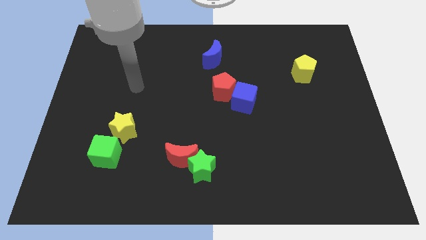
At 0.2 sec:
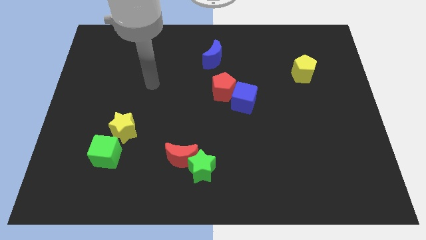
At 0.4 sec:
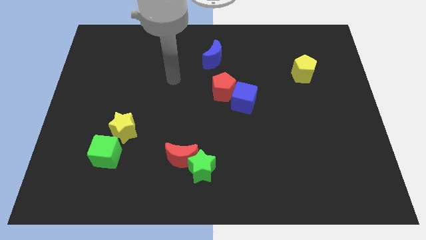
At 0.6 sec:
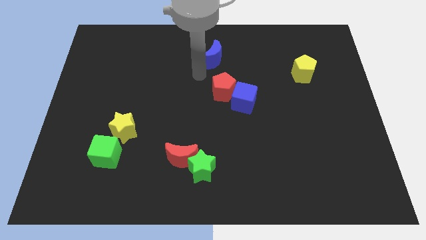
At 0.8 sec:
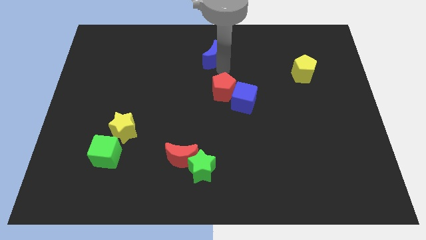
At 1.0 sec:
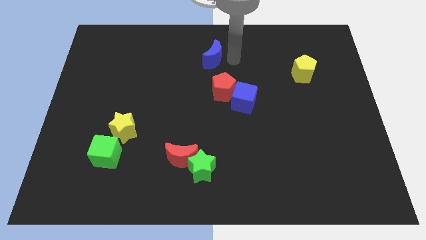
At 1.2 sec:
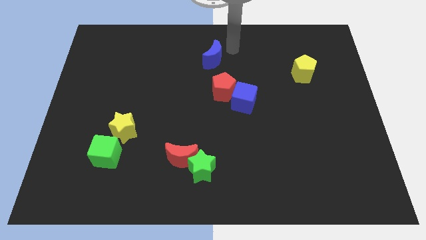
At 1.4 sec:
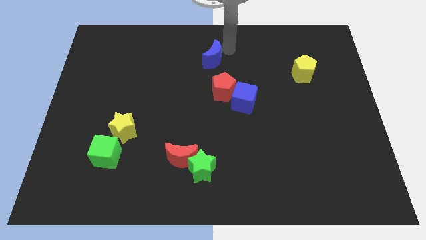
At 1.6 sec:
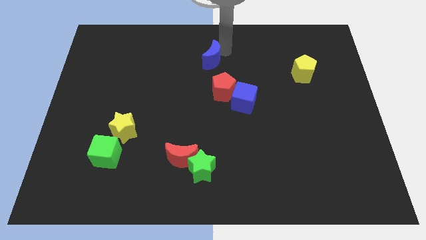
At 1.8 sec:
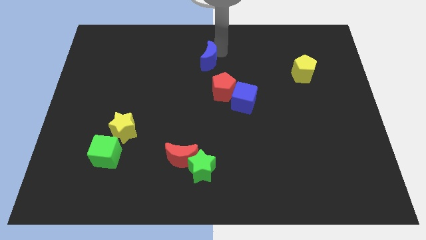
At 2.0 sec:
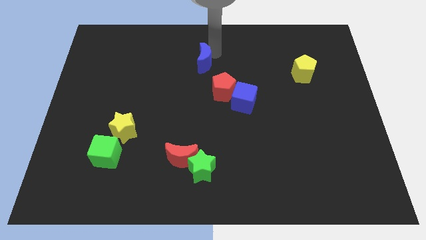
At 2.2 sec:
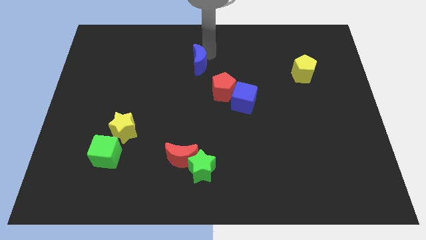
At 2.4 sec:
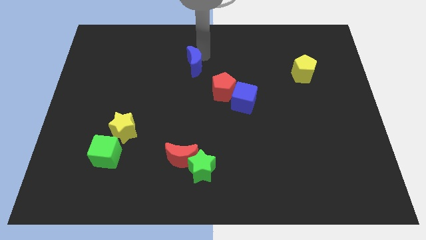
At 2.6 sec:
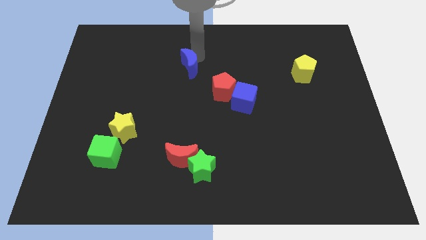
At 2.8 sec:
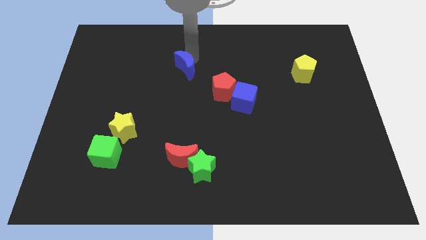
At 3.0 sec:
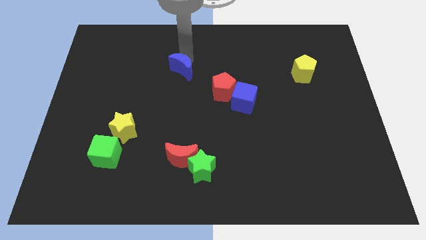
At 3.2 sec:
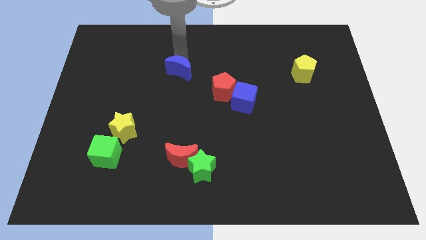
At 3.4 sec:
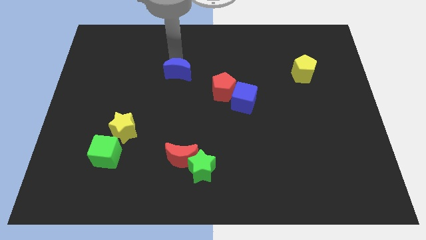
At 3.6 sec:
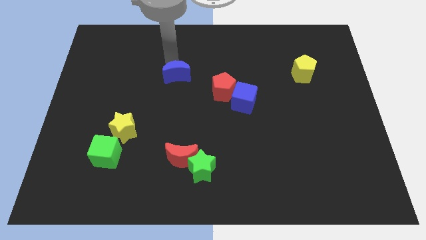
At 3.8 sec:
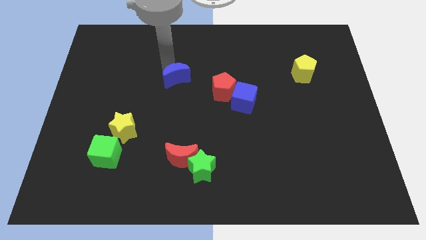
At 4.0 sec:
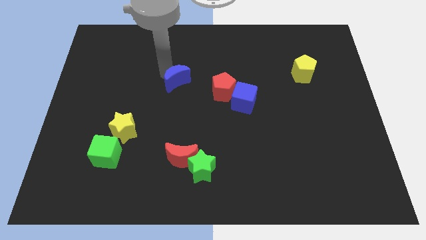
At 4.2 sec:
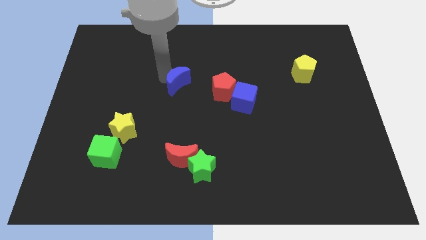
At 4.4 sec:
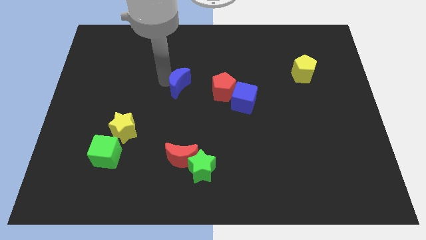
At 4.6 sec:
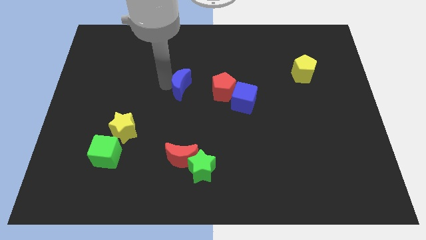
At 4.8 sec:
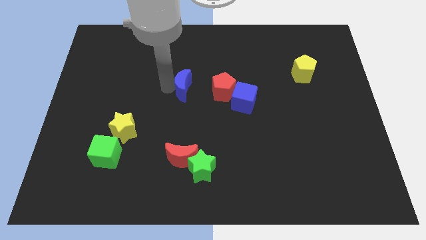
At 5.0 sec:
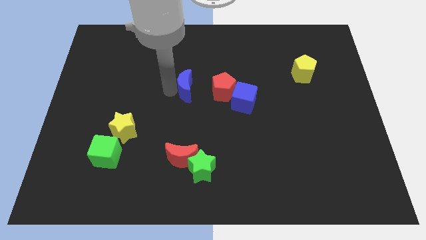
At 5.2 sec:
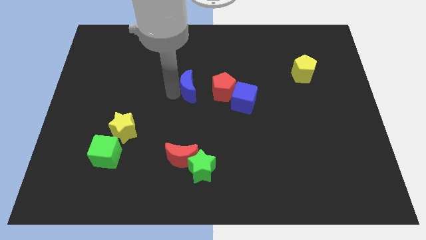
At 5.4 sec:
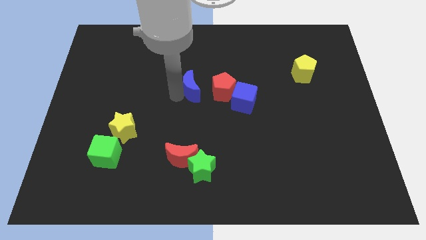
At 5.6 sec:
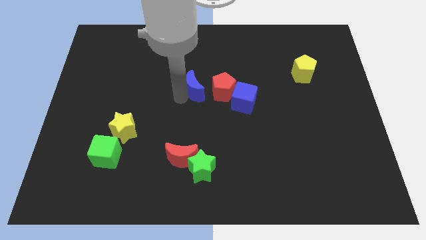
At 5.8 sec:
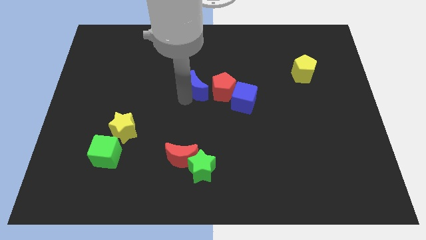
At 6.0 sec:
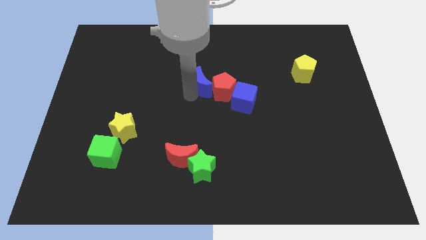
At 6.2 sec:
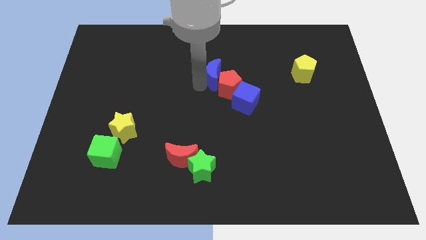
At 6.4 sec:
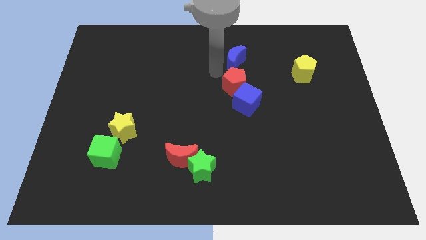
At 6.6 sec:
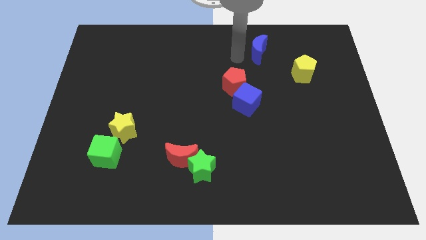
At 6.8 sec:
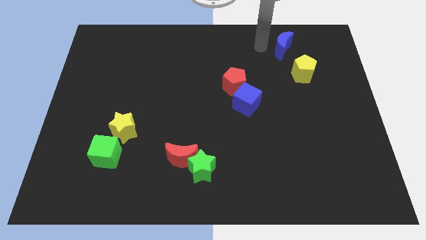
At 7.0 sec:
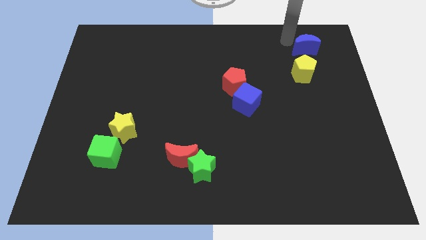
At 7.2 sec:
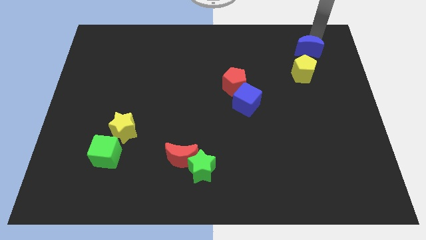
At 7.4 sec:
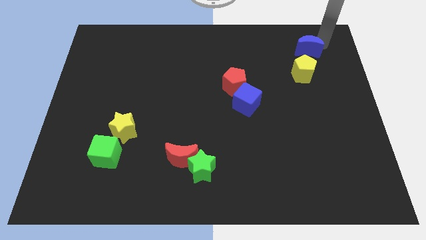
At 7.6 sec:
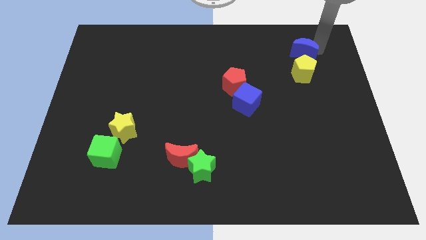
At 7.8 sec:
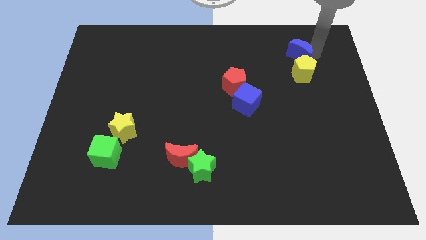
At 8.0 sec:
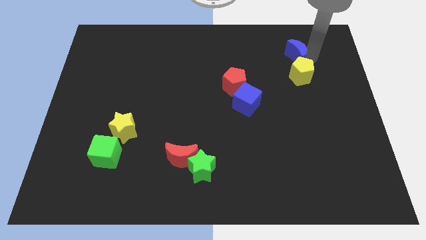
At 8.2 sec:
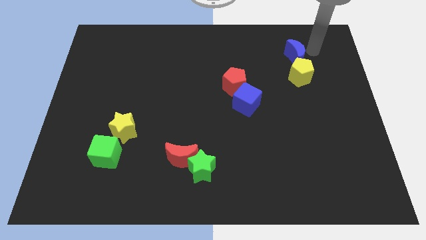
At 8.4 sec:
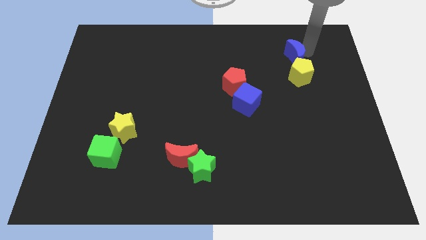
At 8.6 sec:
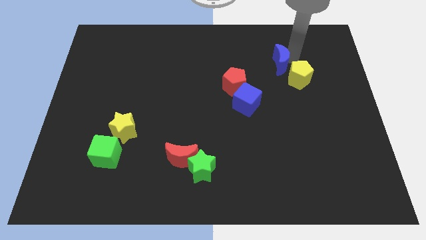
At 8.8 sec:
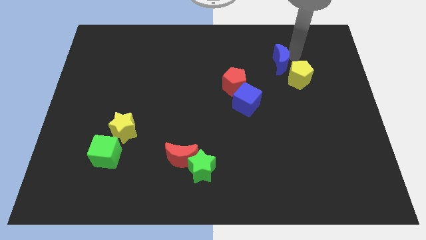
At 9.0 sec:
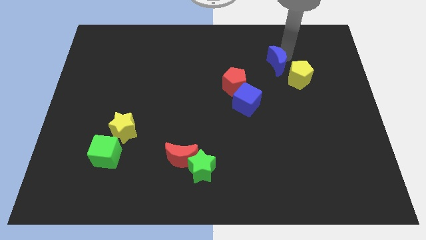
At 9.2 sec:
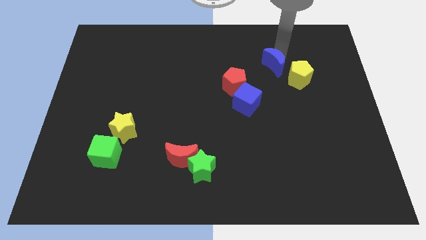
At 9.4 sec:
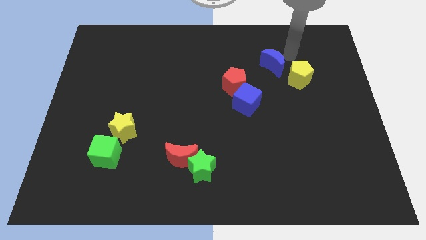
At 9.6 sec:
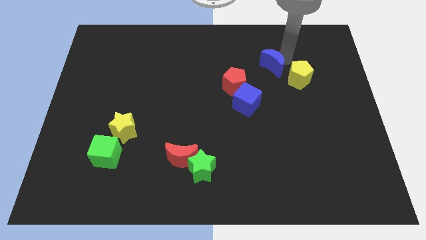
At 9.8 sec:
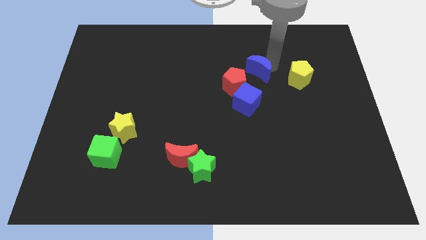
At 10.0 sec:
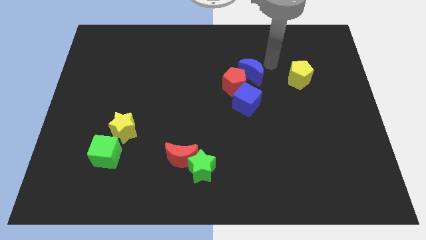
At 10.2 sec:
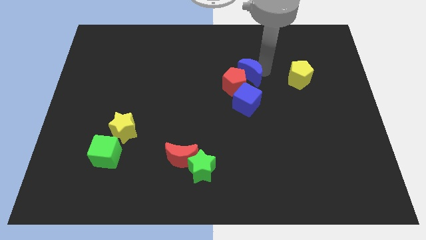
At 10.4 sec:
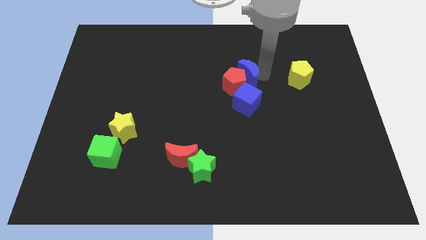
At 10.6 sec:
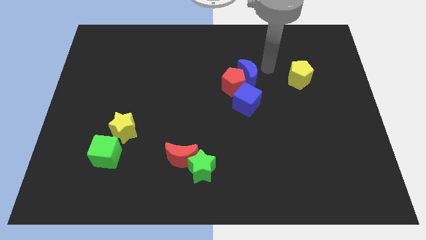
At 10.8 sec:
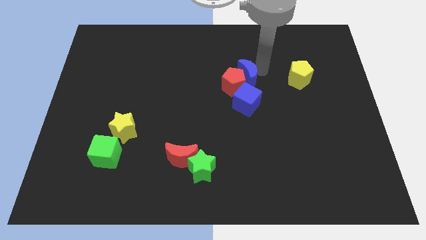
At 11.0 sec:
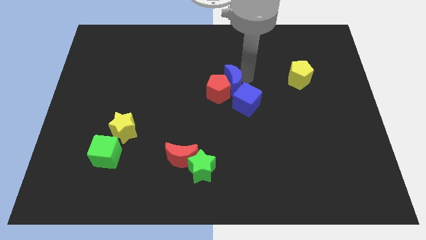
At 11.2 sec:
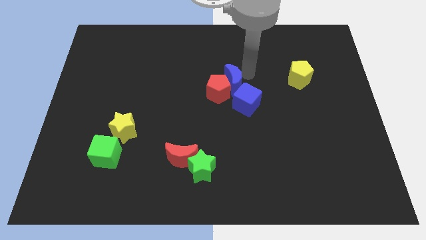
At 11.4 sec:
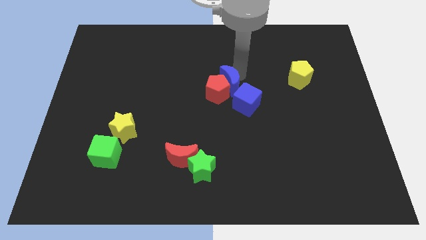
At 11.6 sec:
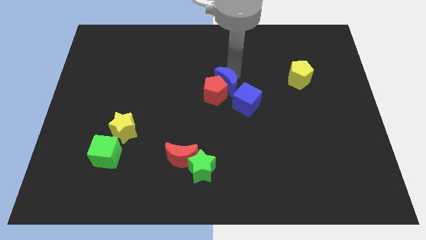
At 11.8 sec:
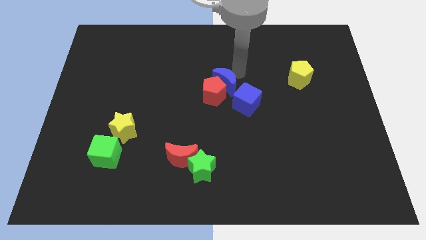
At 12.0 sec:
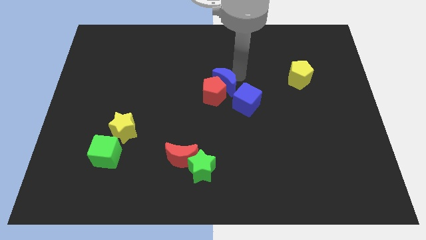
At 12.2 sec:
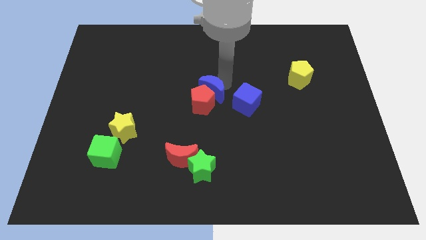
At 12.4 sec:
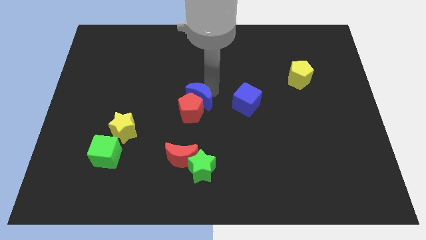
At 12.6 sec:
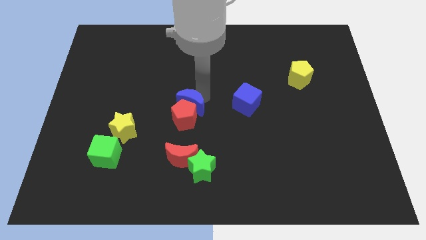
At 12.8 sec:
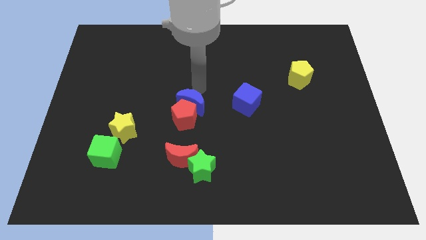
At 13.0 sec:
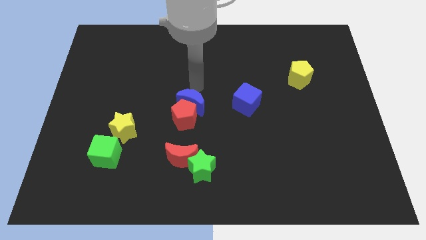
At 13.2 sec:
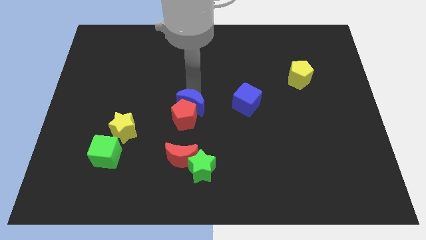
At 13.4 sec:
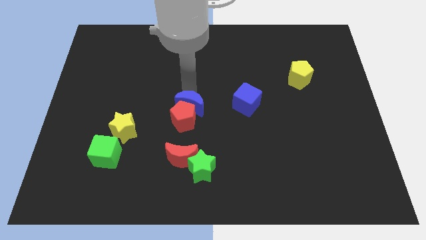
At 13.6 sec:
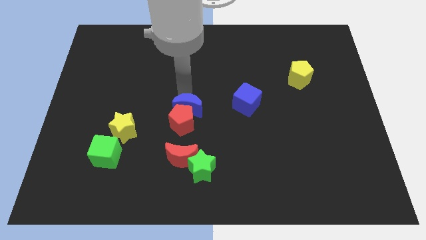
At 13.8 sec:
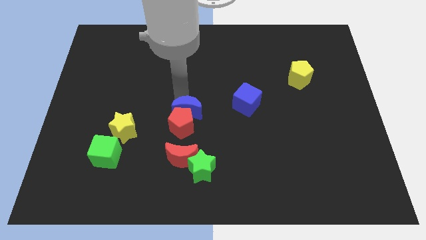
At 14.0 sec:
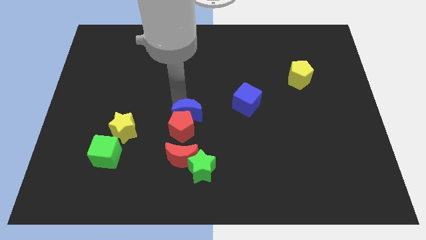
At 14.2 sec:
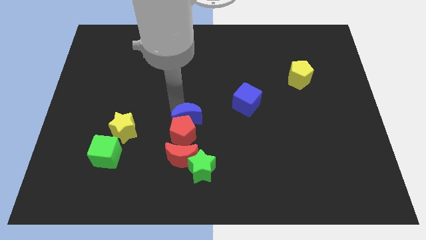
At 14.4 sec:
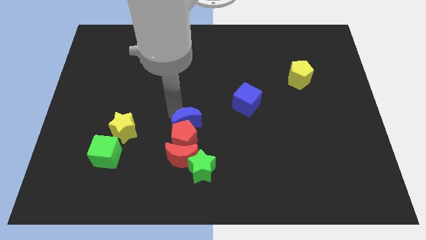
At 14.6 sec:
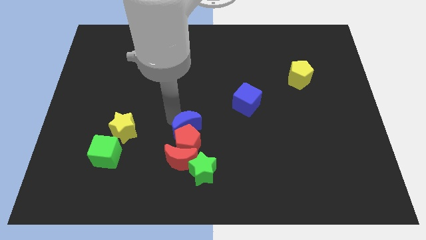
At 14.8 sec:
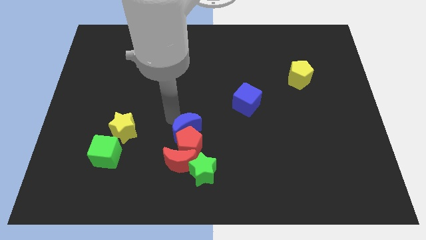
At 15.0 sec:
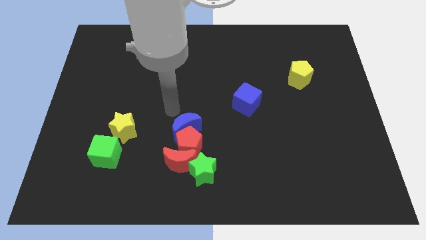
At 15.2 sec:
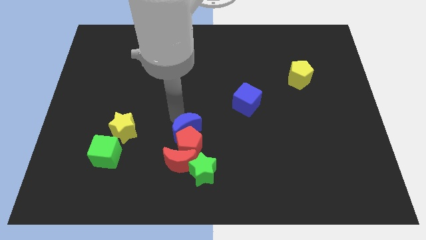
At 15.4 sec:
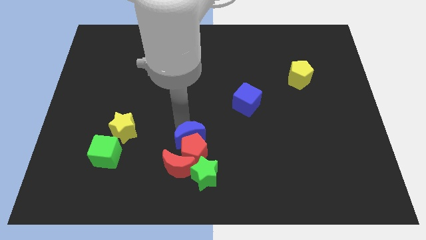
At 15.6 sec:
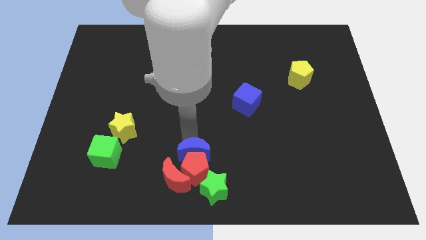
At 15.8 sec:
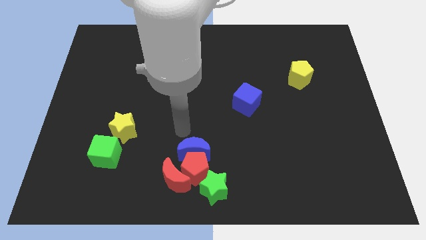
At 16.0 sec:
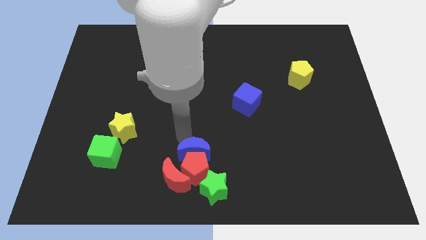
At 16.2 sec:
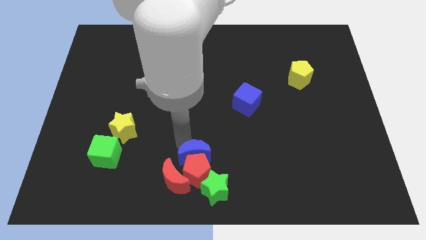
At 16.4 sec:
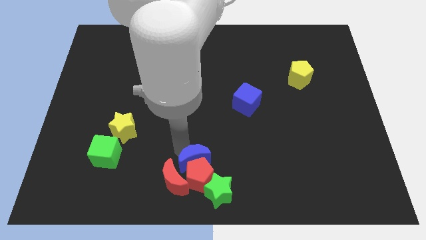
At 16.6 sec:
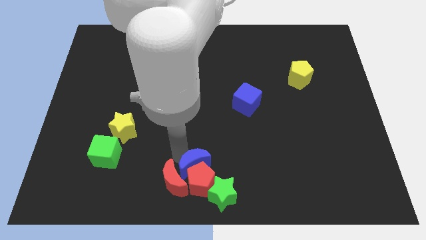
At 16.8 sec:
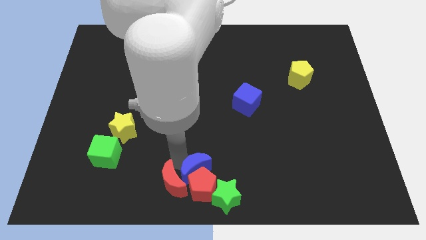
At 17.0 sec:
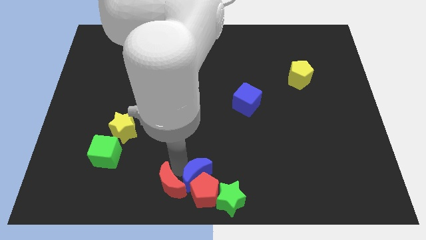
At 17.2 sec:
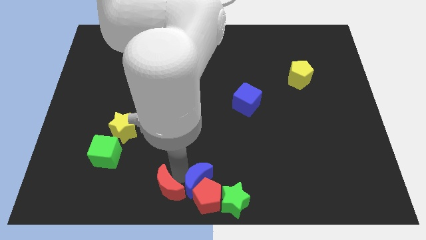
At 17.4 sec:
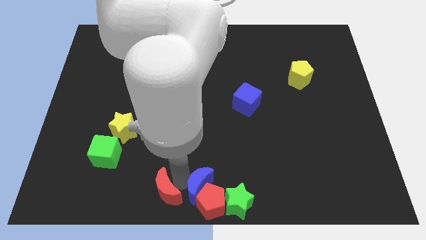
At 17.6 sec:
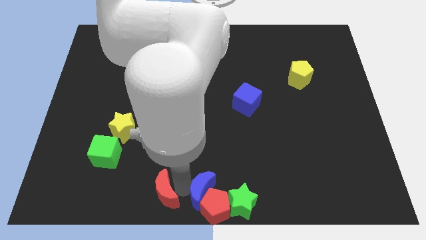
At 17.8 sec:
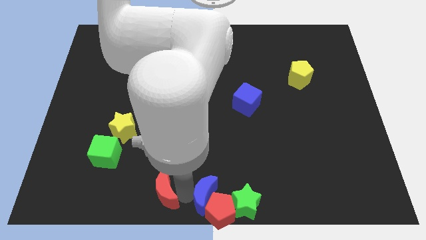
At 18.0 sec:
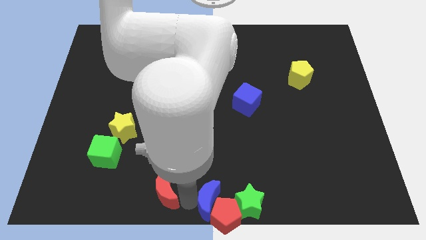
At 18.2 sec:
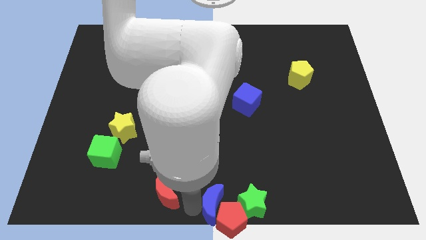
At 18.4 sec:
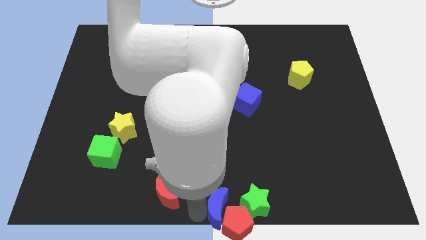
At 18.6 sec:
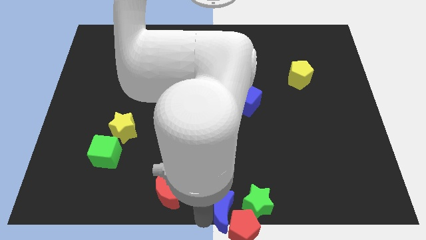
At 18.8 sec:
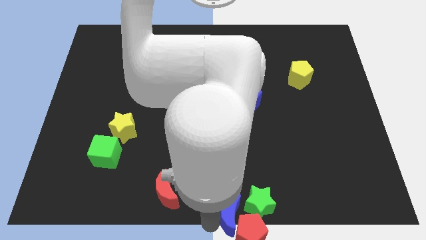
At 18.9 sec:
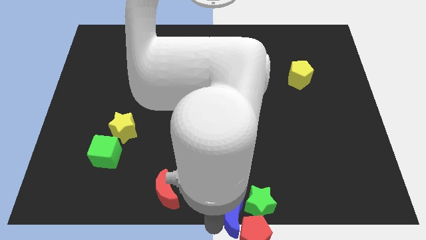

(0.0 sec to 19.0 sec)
push the blue moon close to the green star
